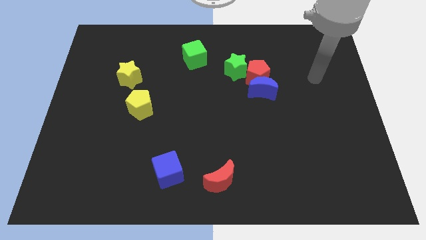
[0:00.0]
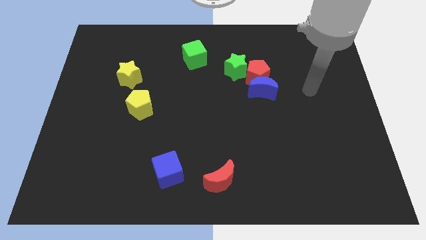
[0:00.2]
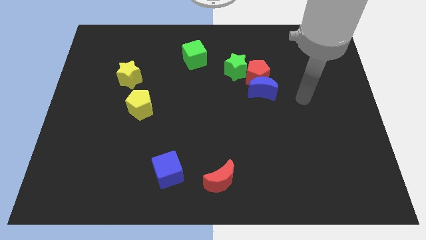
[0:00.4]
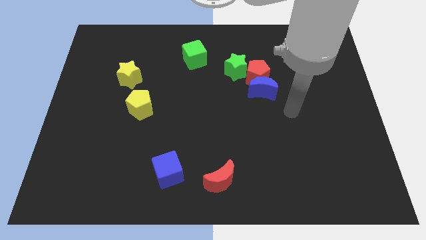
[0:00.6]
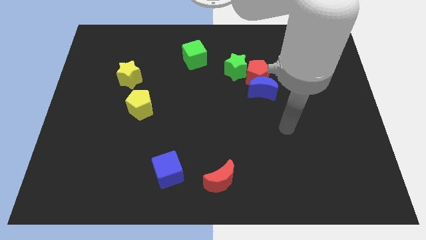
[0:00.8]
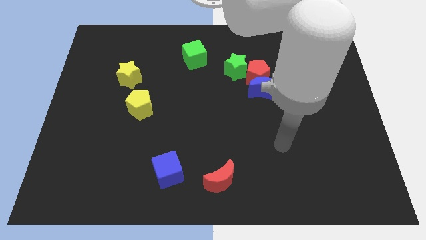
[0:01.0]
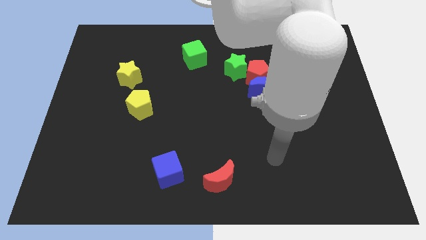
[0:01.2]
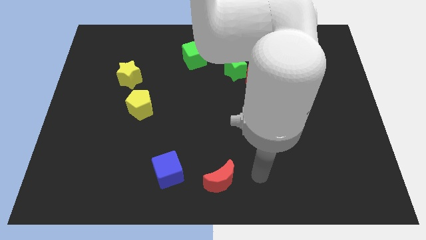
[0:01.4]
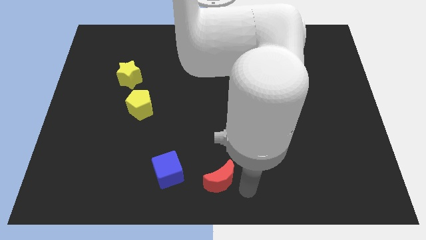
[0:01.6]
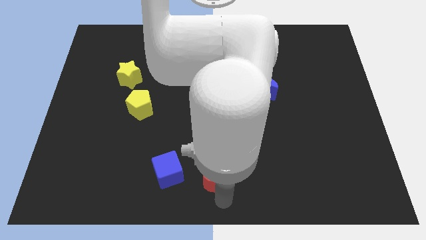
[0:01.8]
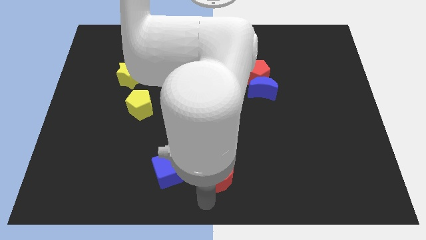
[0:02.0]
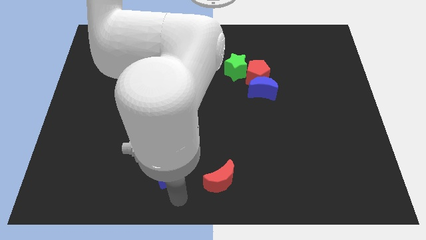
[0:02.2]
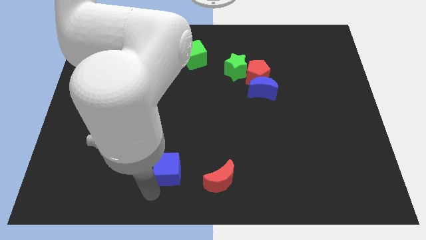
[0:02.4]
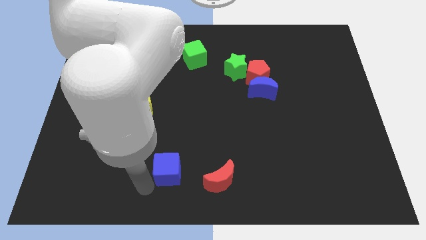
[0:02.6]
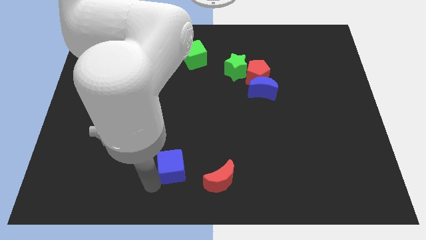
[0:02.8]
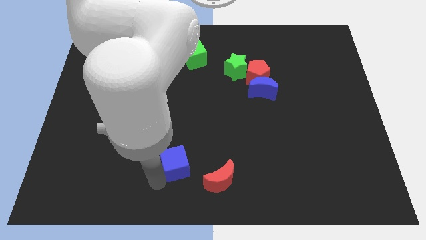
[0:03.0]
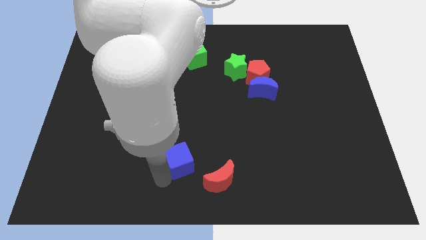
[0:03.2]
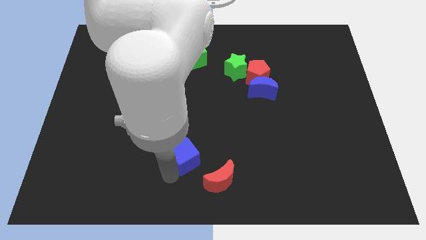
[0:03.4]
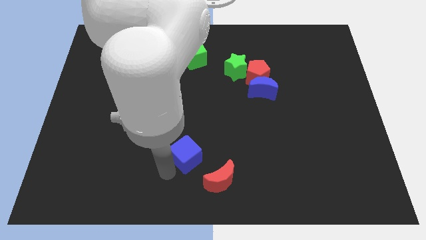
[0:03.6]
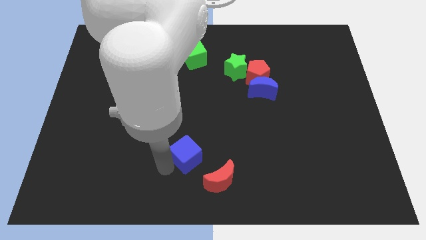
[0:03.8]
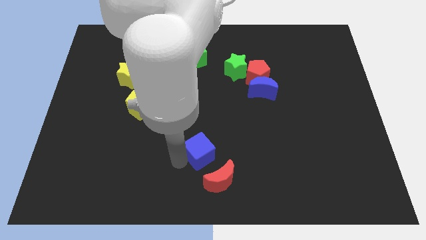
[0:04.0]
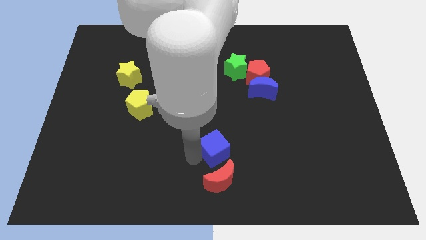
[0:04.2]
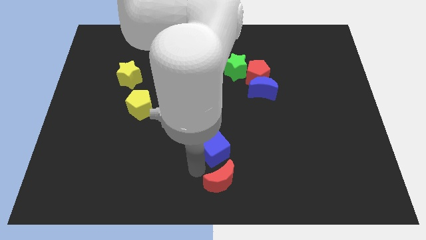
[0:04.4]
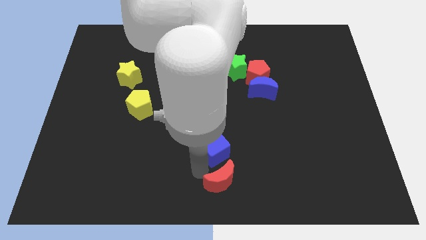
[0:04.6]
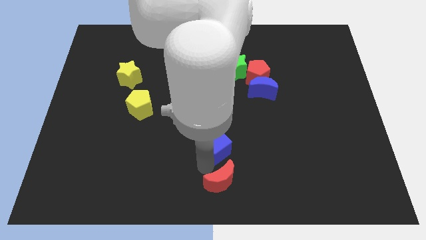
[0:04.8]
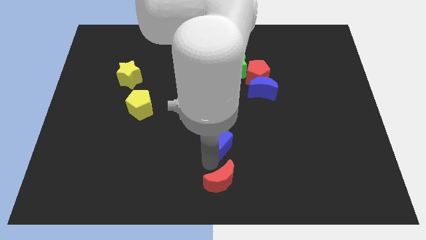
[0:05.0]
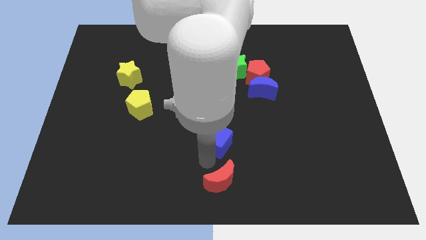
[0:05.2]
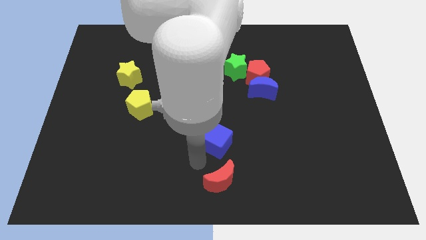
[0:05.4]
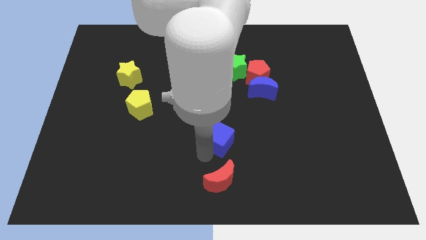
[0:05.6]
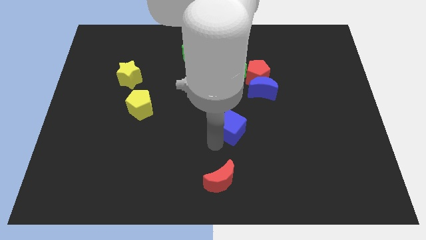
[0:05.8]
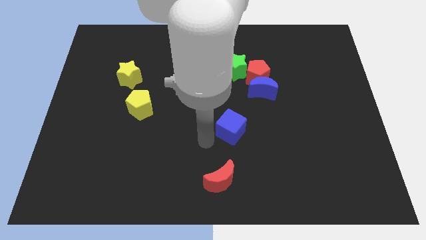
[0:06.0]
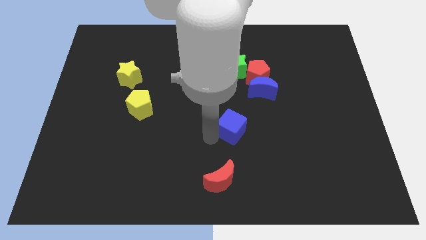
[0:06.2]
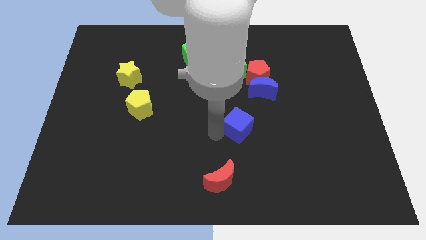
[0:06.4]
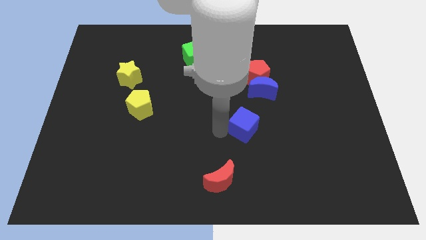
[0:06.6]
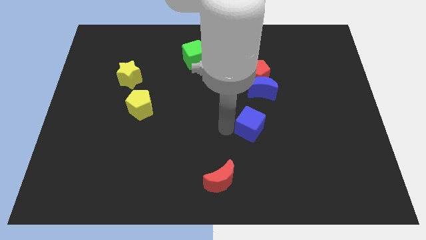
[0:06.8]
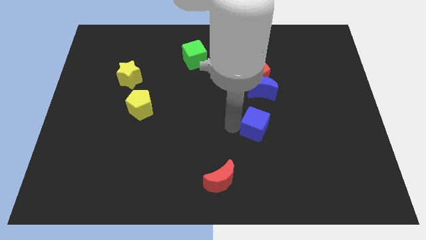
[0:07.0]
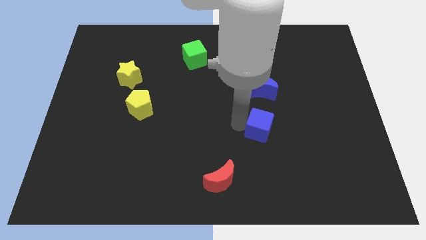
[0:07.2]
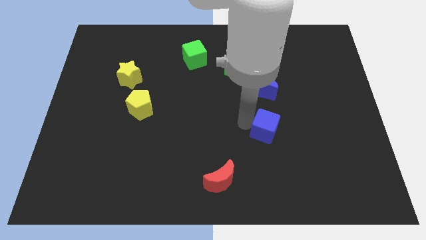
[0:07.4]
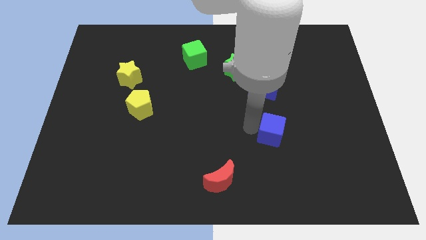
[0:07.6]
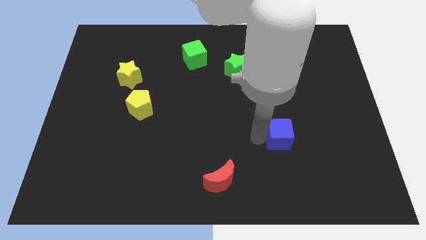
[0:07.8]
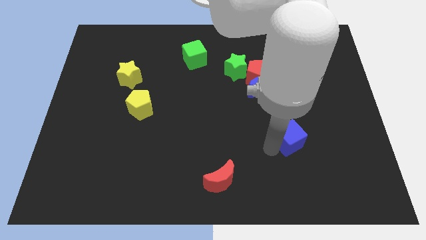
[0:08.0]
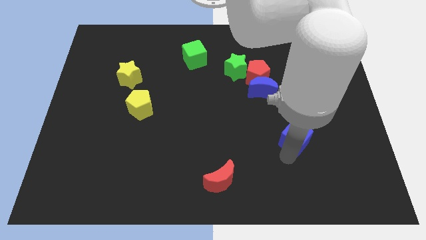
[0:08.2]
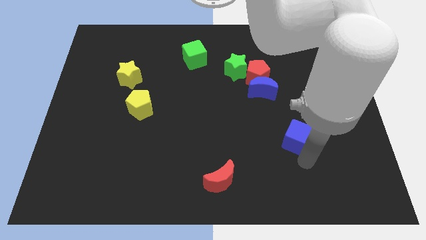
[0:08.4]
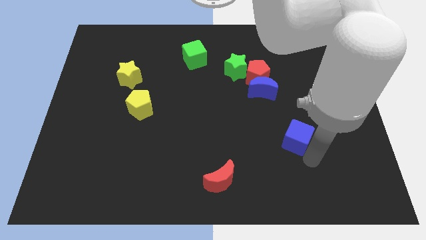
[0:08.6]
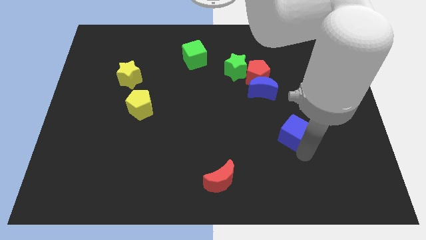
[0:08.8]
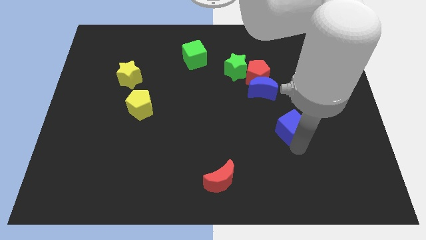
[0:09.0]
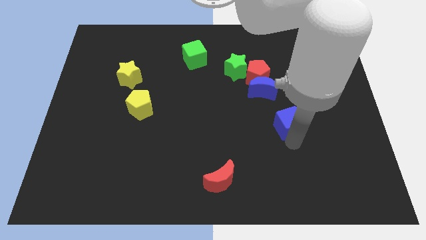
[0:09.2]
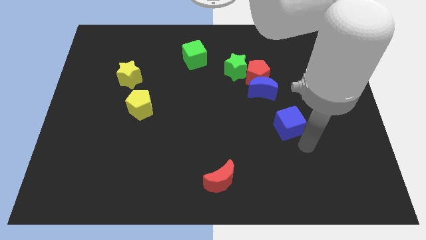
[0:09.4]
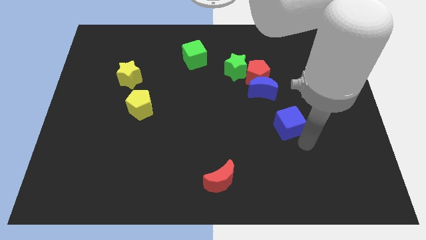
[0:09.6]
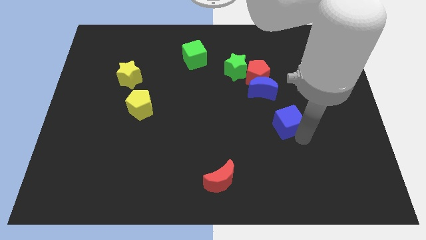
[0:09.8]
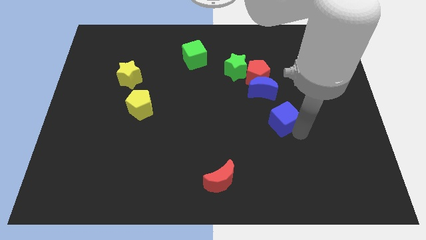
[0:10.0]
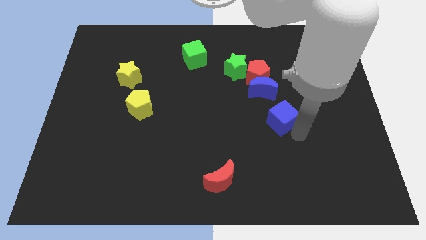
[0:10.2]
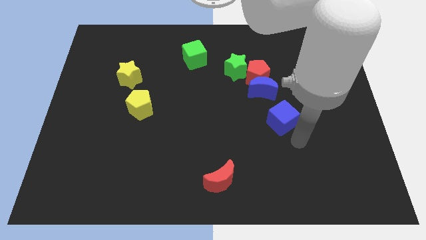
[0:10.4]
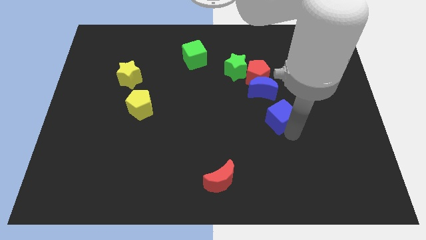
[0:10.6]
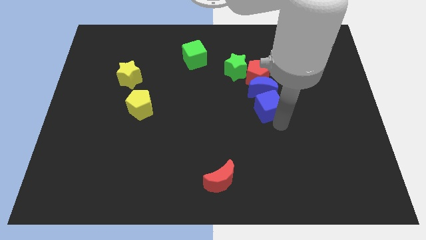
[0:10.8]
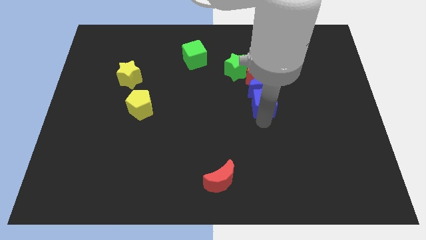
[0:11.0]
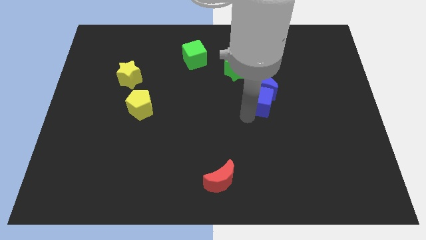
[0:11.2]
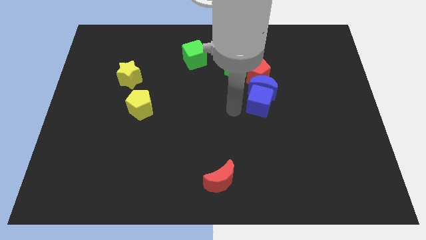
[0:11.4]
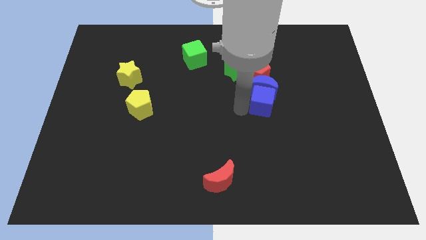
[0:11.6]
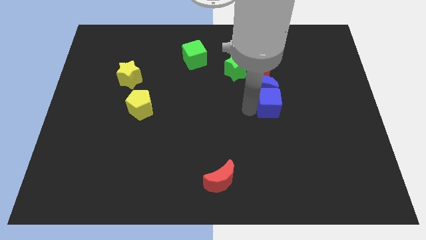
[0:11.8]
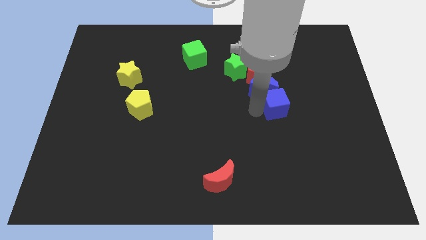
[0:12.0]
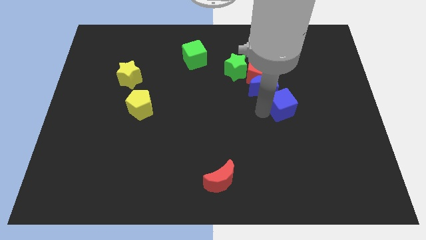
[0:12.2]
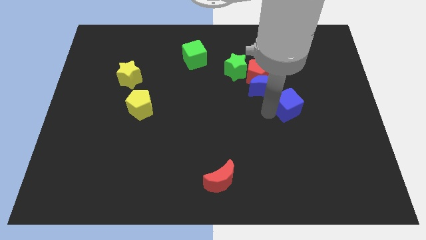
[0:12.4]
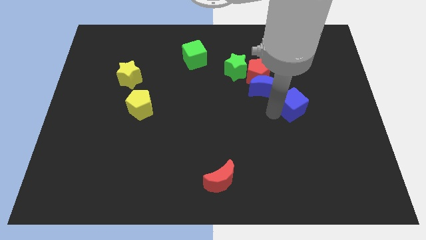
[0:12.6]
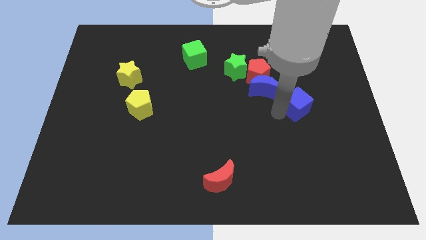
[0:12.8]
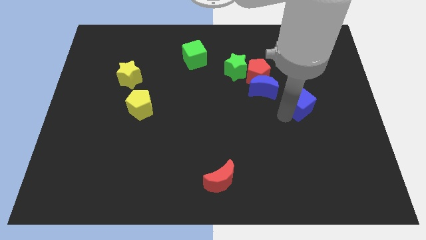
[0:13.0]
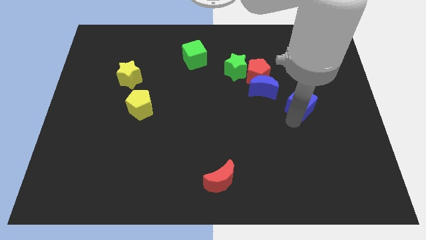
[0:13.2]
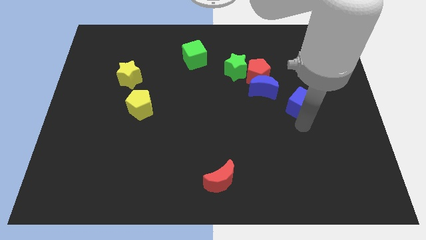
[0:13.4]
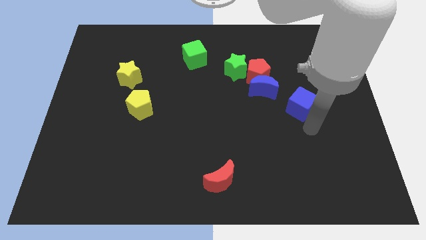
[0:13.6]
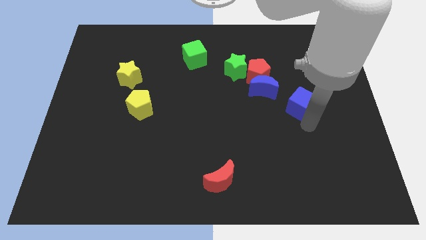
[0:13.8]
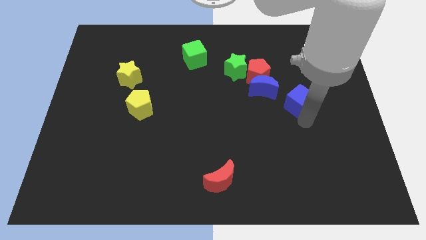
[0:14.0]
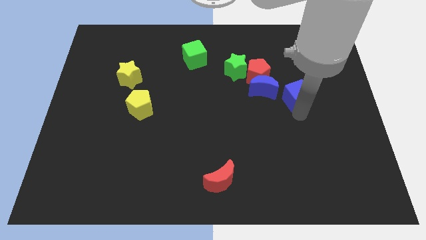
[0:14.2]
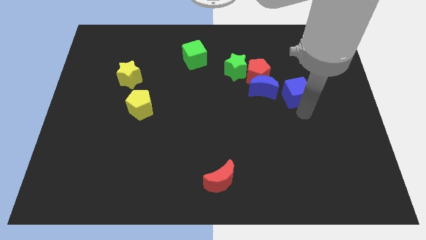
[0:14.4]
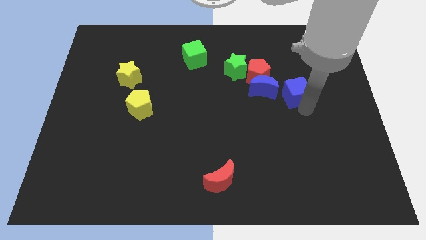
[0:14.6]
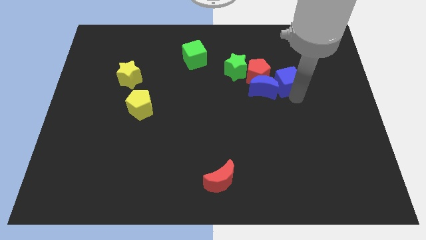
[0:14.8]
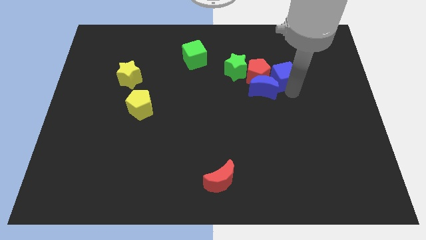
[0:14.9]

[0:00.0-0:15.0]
push the blue cube to the right of the green star

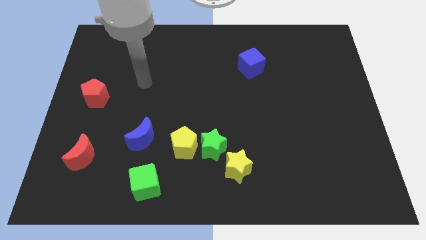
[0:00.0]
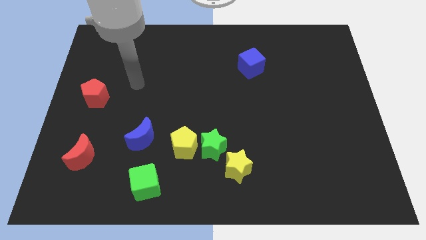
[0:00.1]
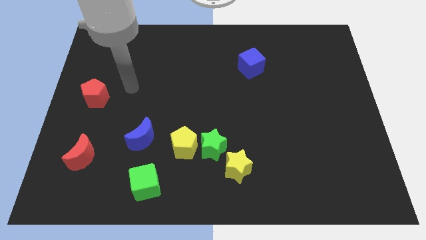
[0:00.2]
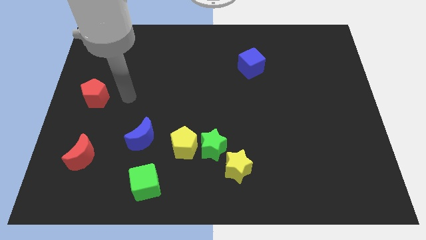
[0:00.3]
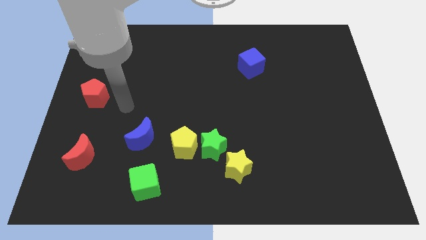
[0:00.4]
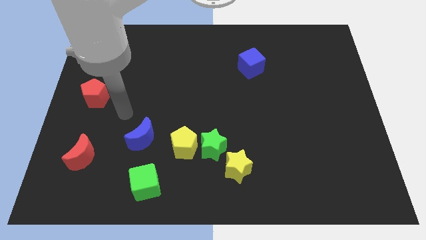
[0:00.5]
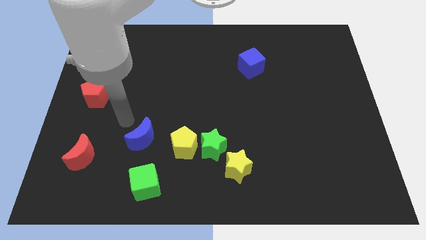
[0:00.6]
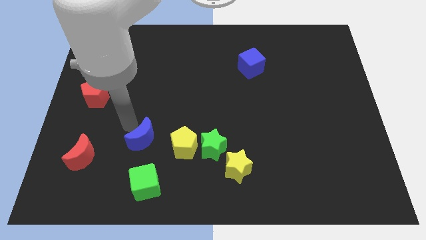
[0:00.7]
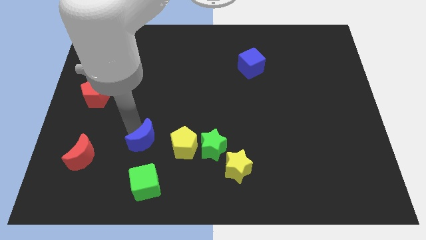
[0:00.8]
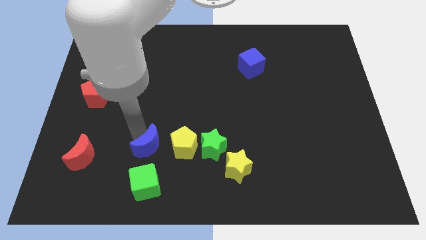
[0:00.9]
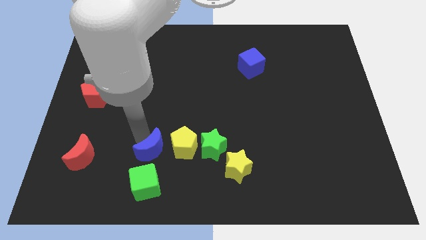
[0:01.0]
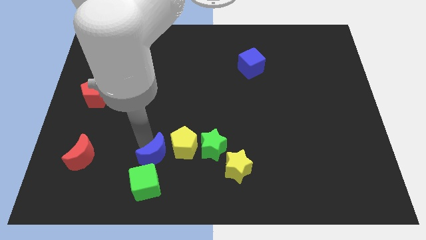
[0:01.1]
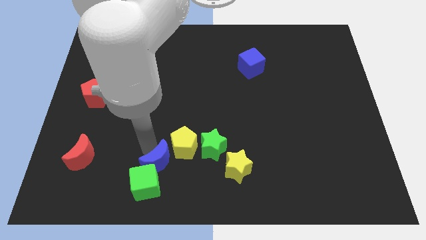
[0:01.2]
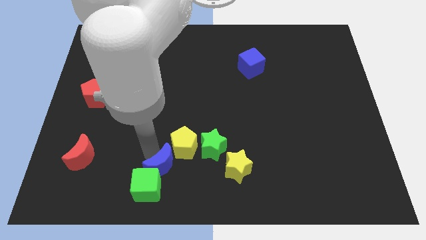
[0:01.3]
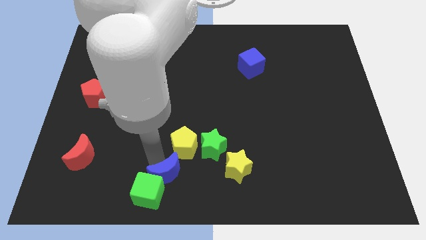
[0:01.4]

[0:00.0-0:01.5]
move the blue moon just right of the green cube
